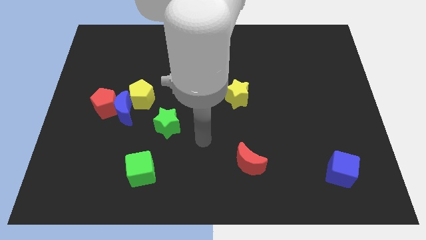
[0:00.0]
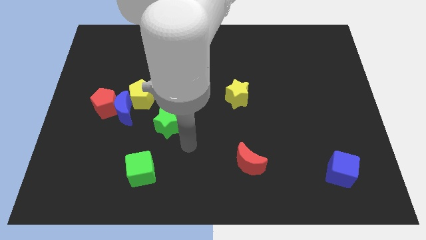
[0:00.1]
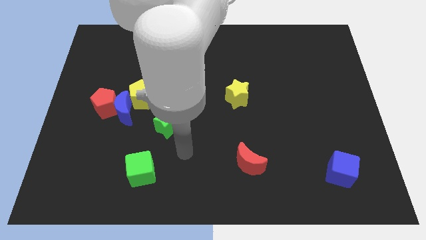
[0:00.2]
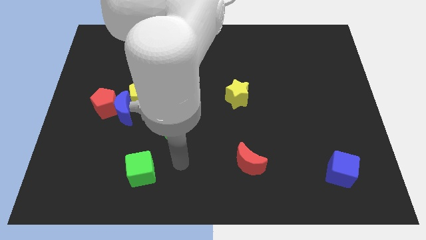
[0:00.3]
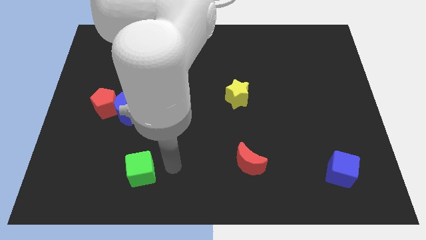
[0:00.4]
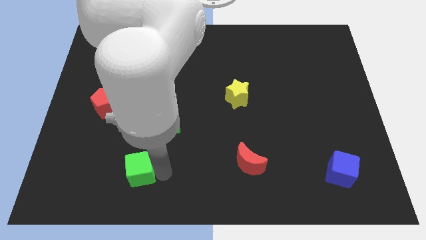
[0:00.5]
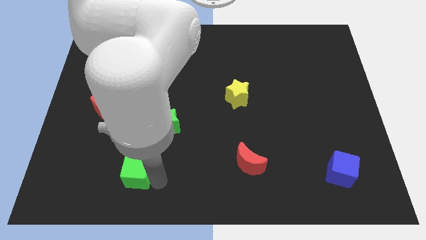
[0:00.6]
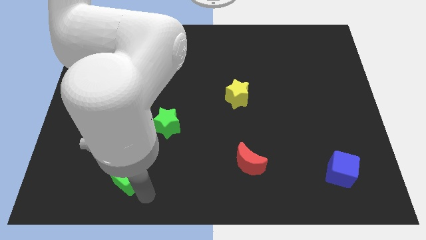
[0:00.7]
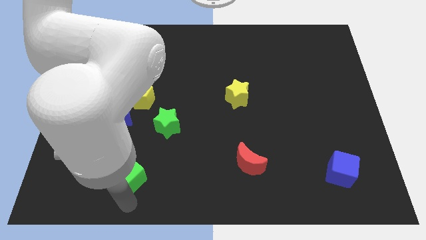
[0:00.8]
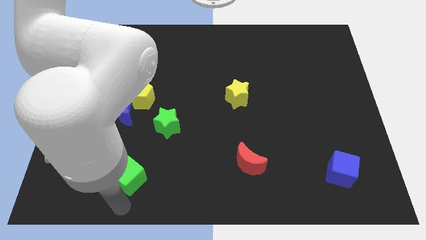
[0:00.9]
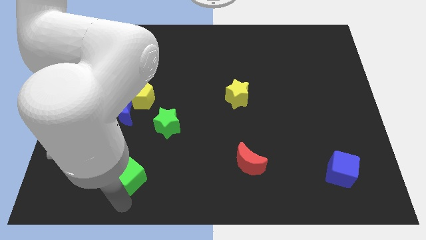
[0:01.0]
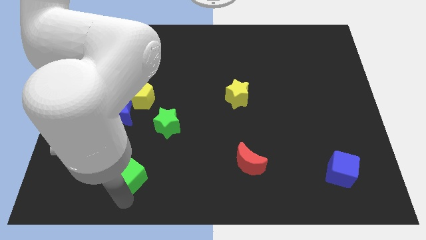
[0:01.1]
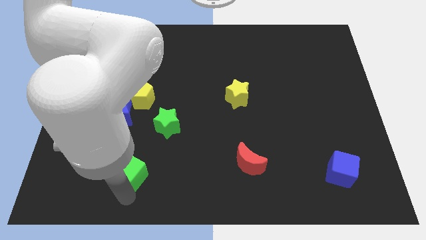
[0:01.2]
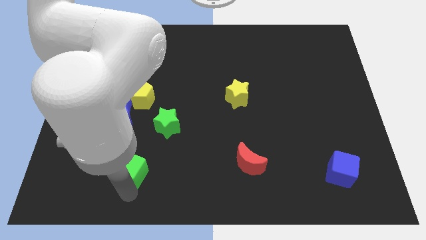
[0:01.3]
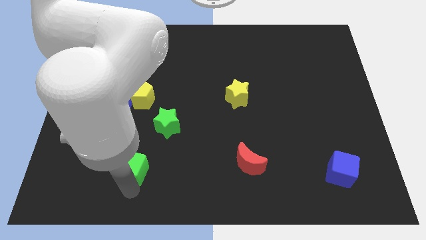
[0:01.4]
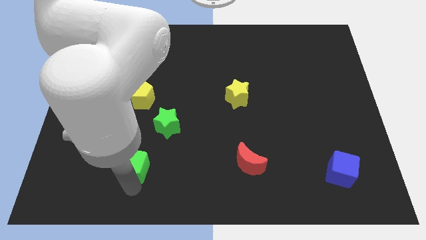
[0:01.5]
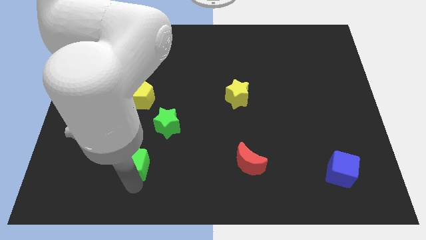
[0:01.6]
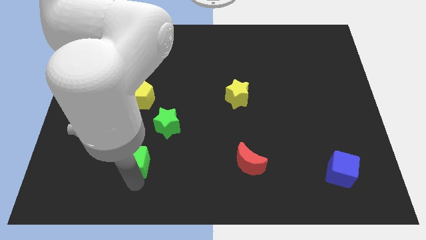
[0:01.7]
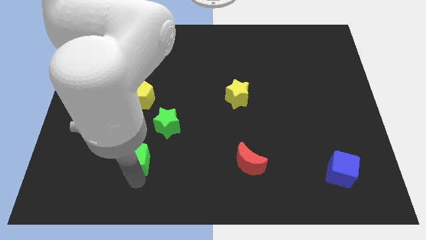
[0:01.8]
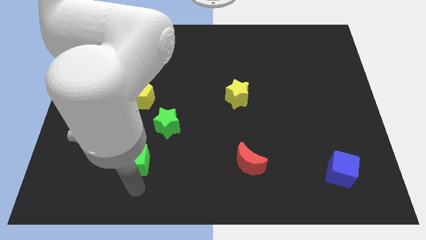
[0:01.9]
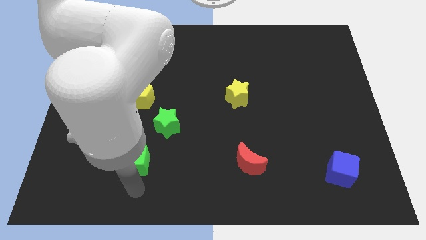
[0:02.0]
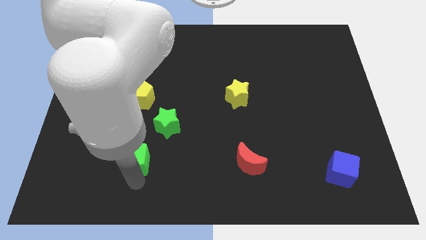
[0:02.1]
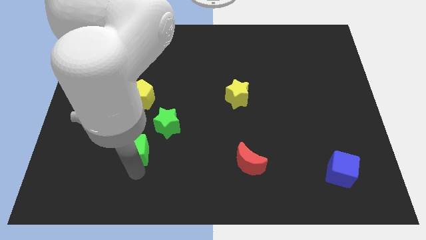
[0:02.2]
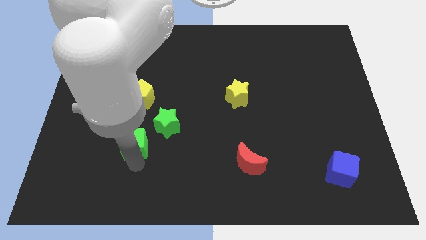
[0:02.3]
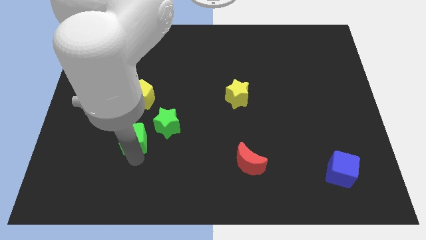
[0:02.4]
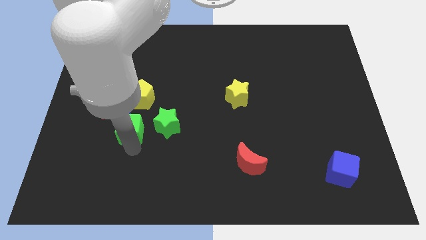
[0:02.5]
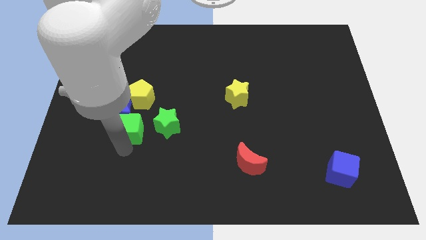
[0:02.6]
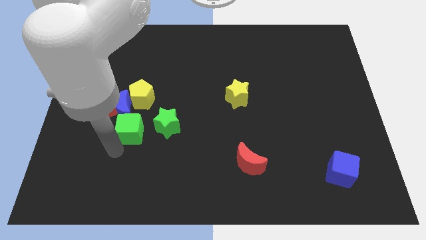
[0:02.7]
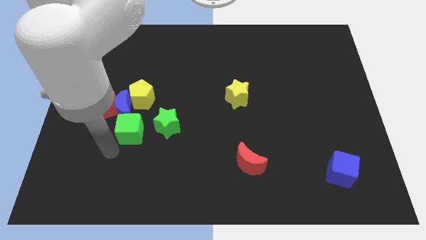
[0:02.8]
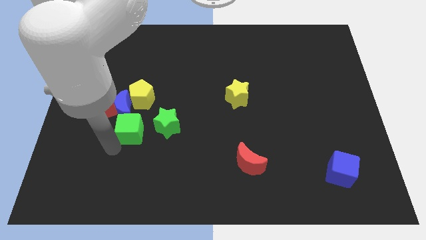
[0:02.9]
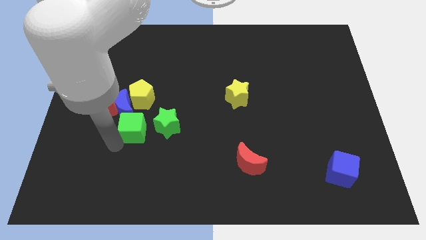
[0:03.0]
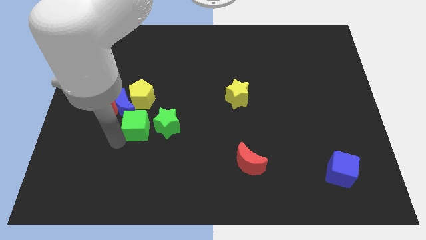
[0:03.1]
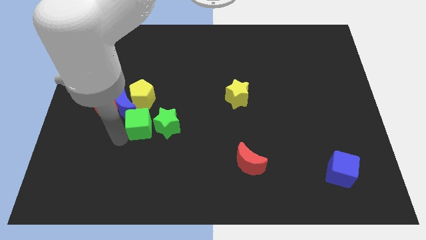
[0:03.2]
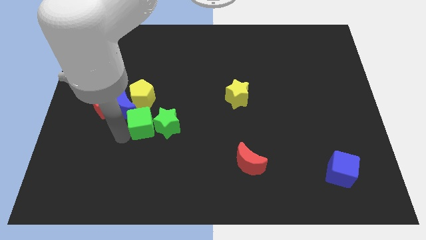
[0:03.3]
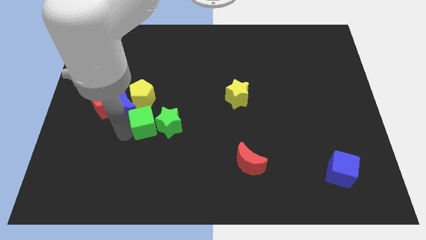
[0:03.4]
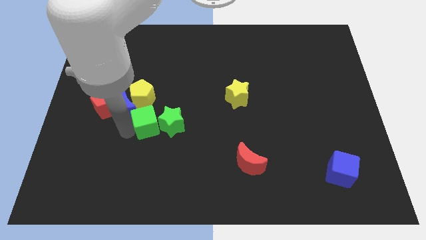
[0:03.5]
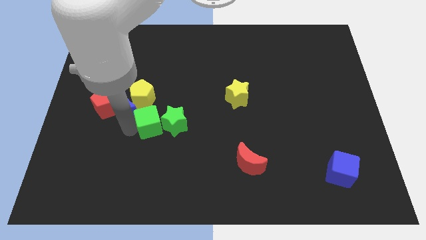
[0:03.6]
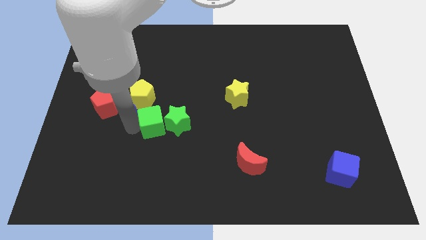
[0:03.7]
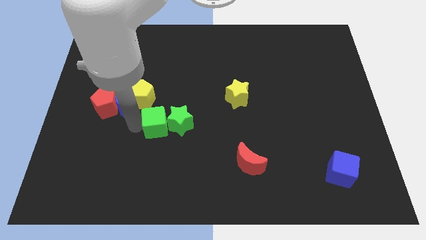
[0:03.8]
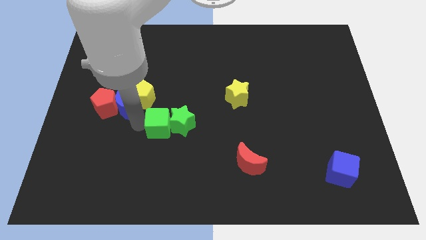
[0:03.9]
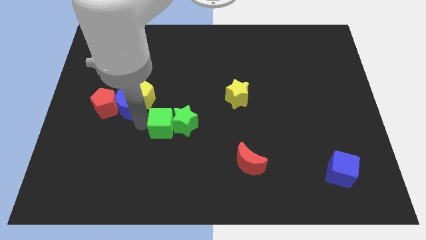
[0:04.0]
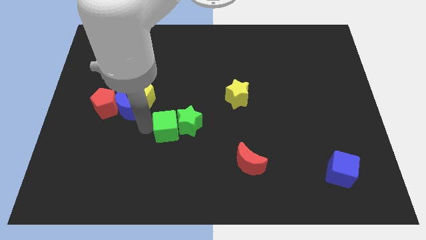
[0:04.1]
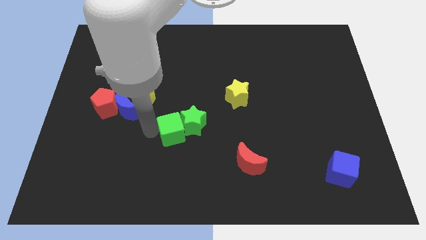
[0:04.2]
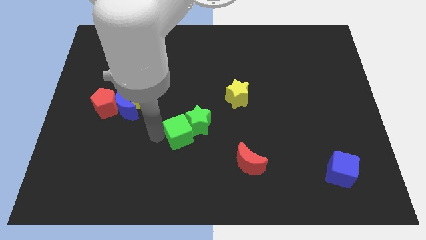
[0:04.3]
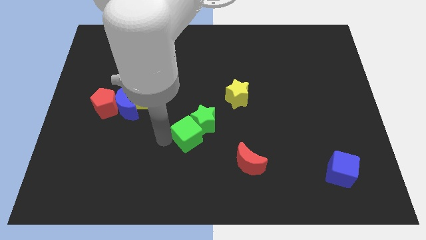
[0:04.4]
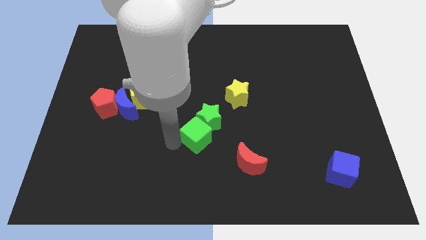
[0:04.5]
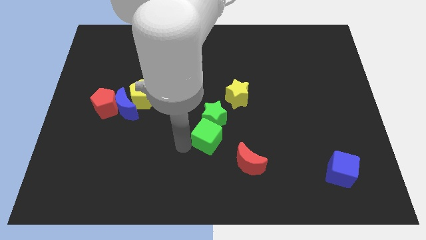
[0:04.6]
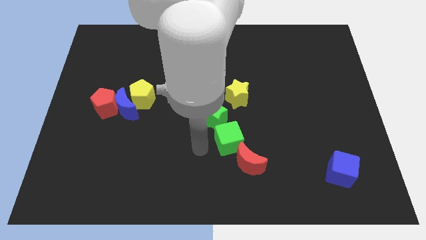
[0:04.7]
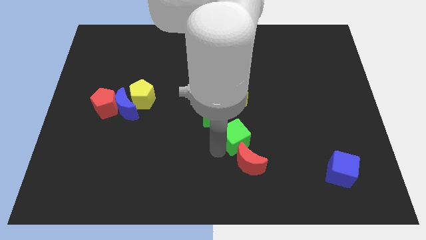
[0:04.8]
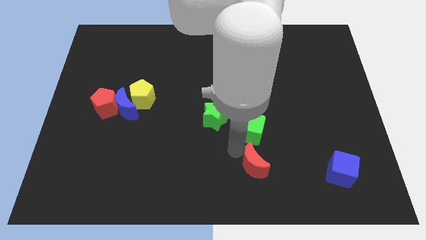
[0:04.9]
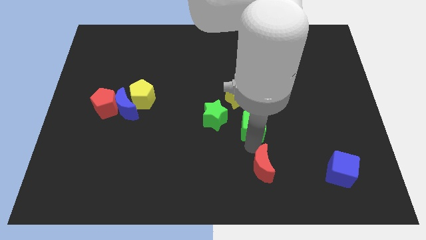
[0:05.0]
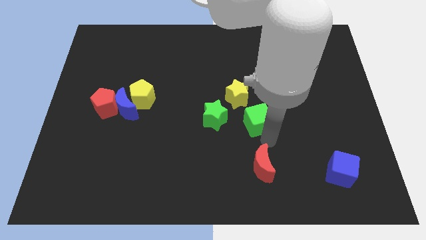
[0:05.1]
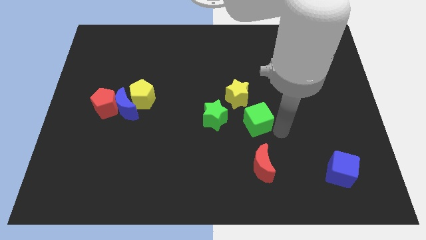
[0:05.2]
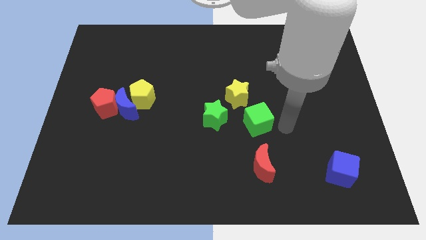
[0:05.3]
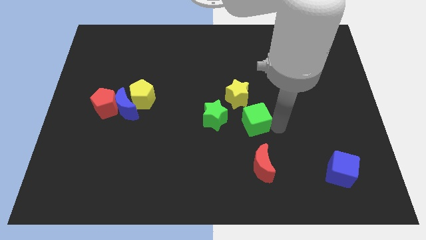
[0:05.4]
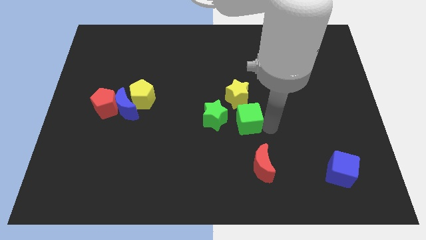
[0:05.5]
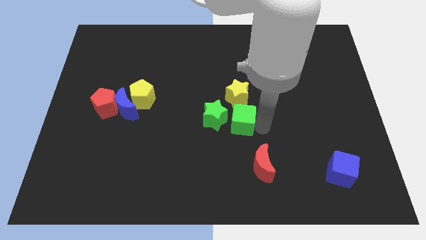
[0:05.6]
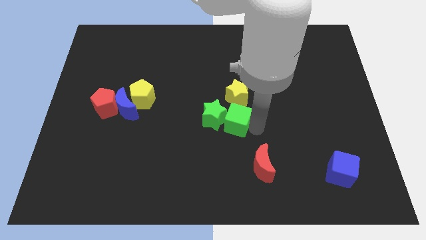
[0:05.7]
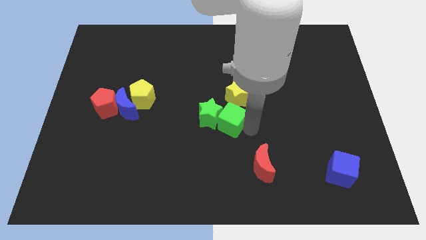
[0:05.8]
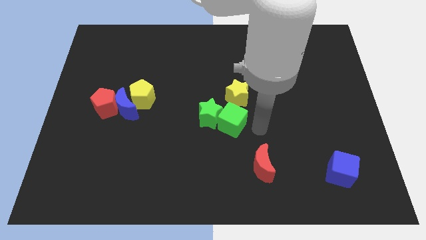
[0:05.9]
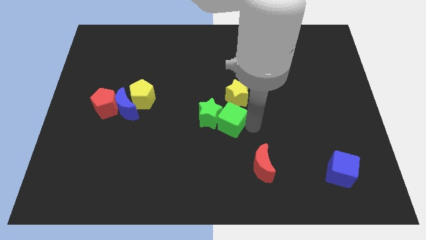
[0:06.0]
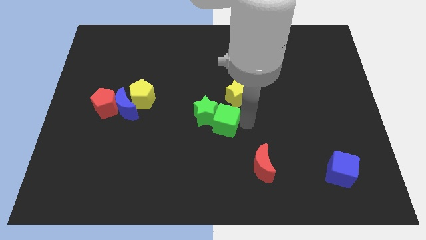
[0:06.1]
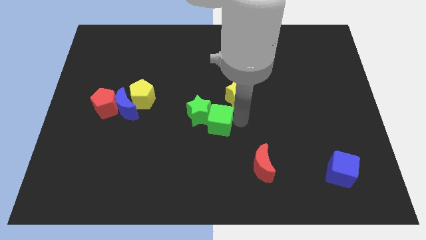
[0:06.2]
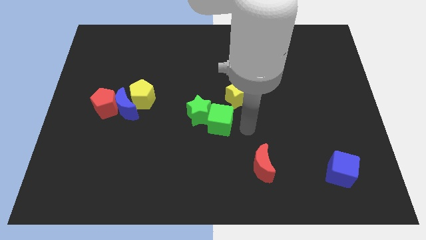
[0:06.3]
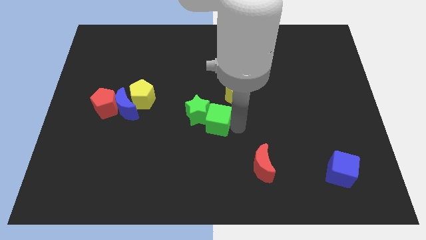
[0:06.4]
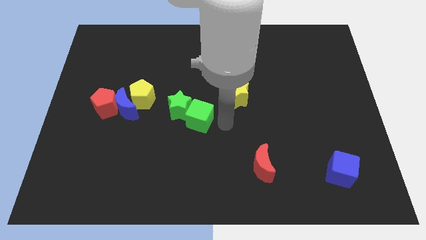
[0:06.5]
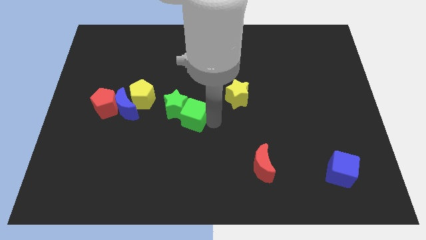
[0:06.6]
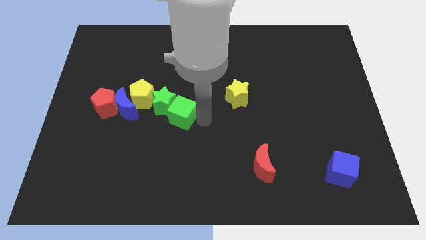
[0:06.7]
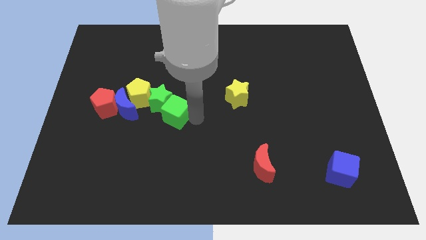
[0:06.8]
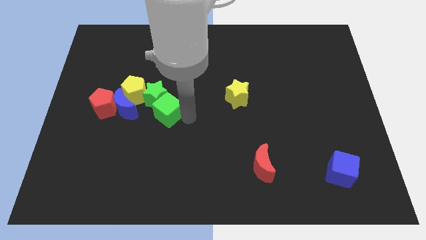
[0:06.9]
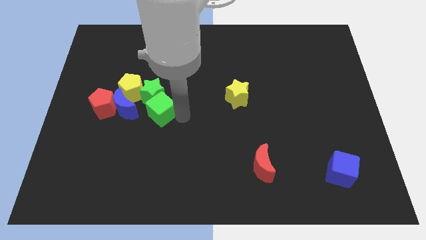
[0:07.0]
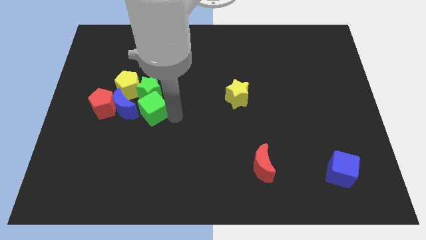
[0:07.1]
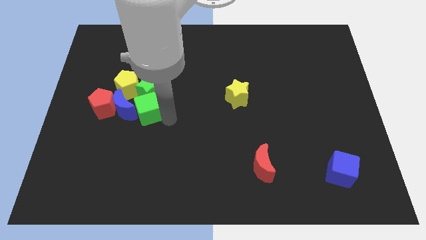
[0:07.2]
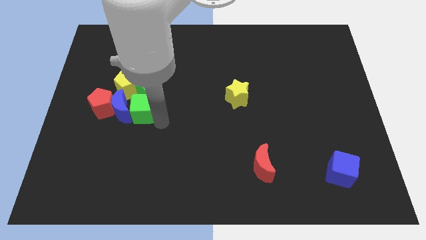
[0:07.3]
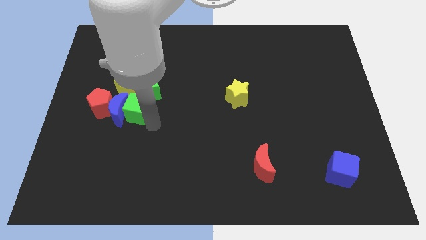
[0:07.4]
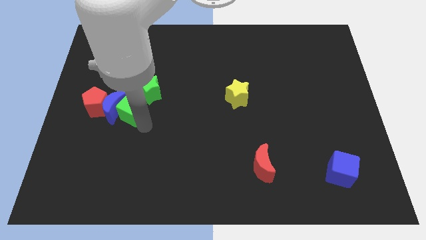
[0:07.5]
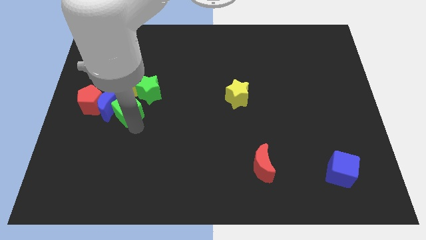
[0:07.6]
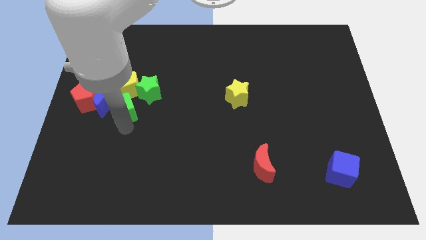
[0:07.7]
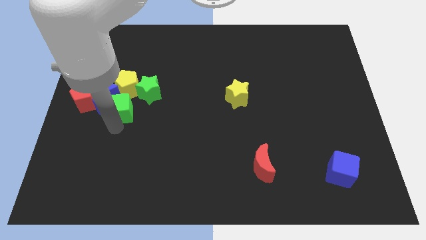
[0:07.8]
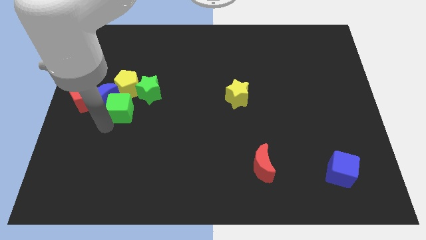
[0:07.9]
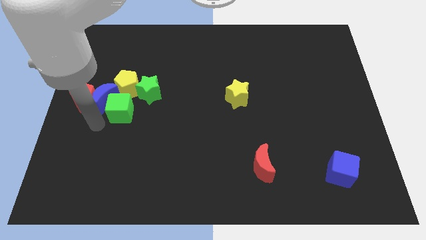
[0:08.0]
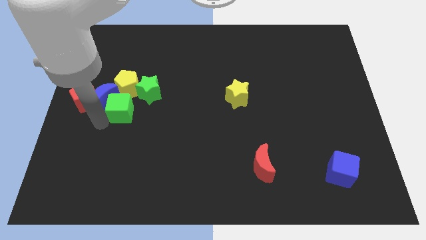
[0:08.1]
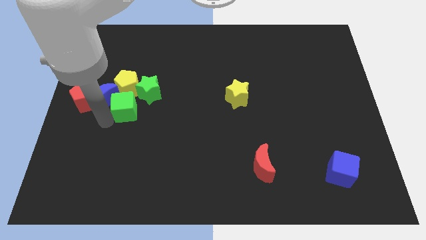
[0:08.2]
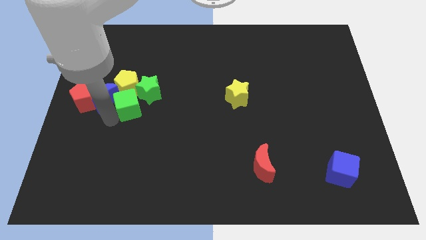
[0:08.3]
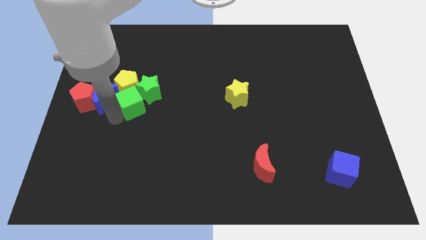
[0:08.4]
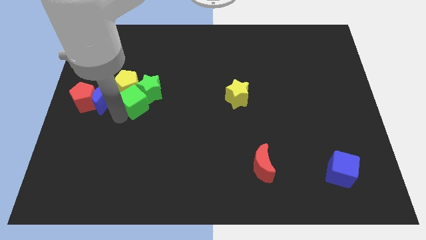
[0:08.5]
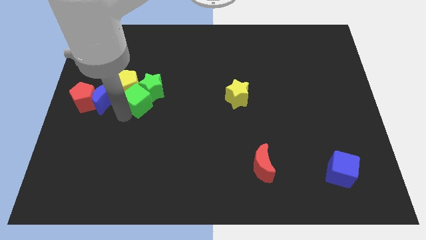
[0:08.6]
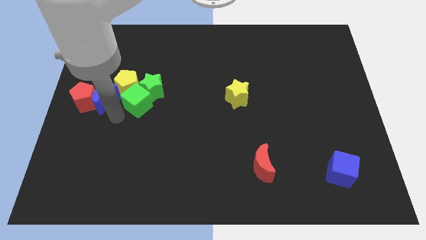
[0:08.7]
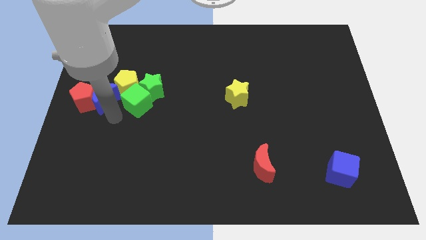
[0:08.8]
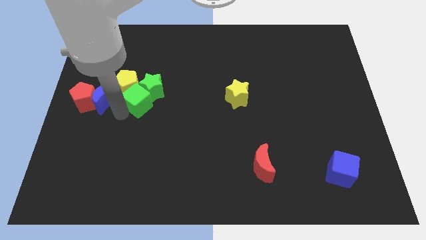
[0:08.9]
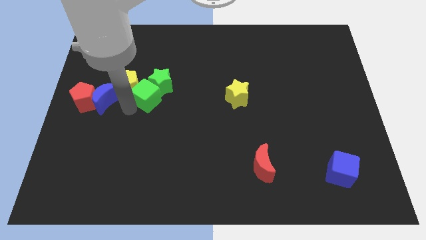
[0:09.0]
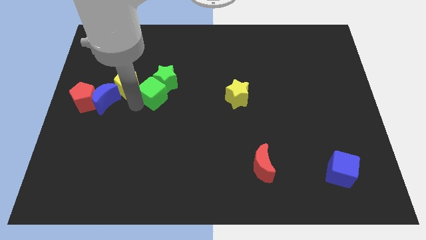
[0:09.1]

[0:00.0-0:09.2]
slide the green cube up
